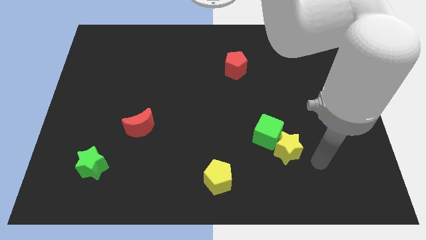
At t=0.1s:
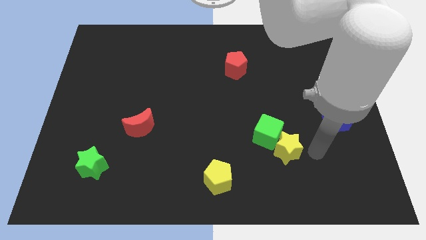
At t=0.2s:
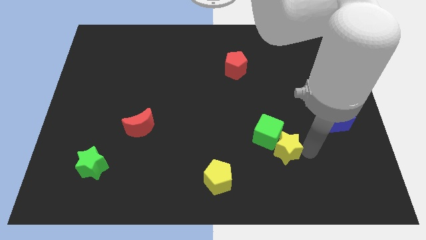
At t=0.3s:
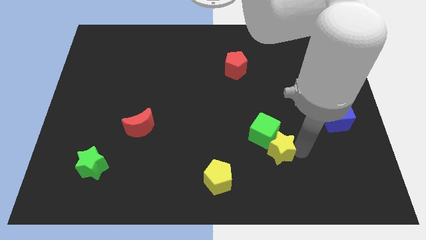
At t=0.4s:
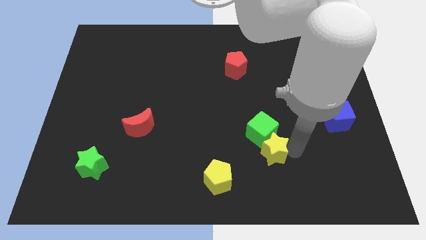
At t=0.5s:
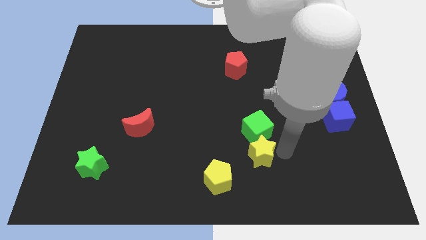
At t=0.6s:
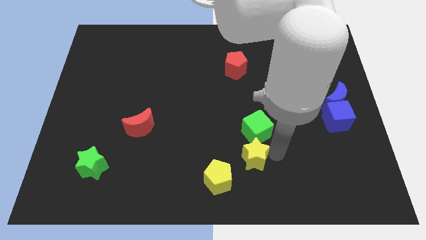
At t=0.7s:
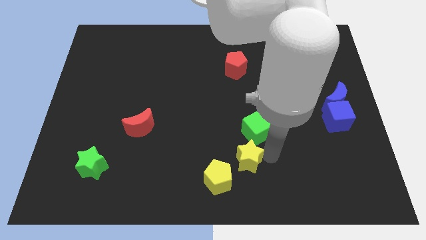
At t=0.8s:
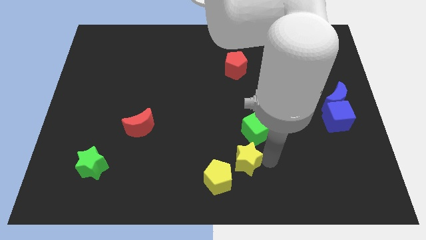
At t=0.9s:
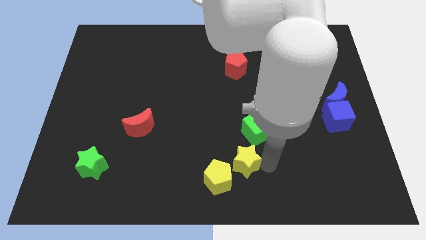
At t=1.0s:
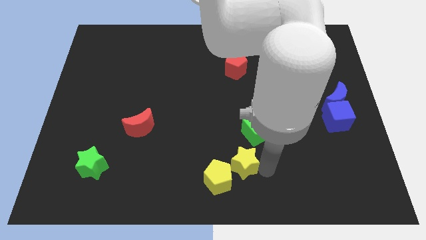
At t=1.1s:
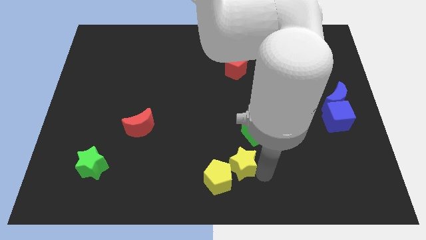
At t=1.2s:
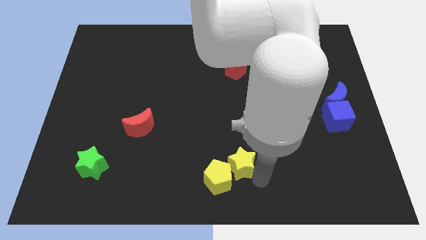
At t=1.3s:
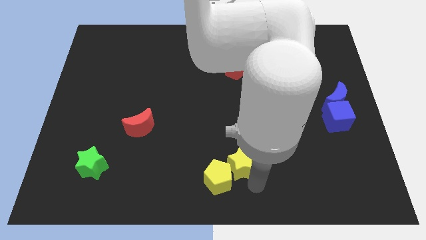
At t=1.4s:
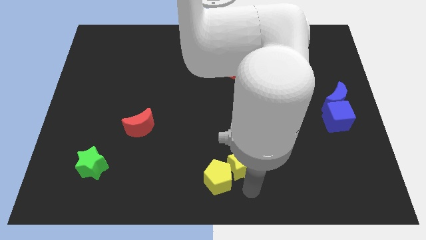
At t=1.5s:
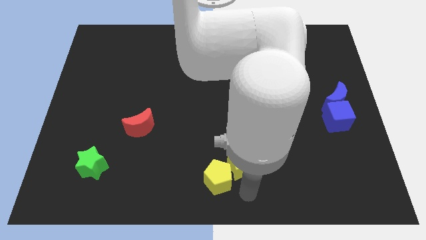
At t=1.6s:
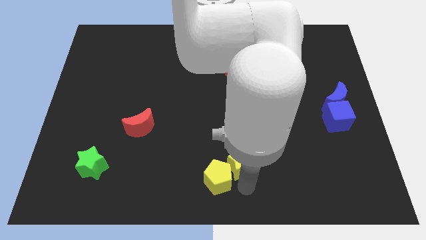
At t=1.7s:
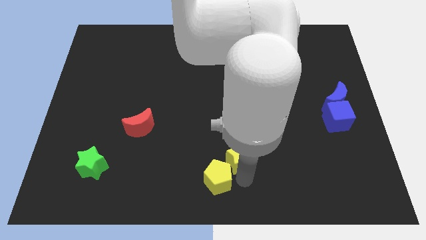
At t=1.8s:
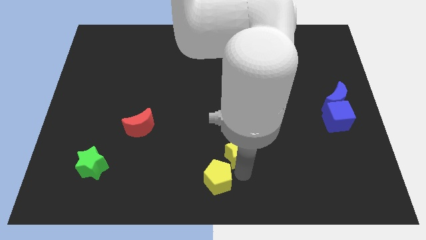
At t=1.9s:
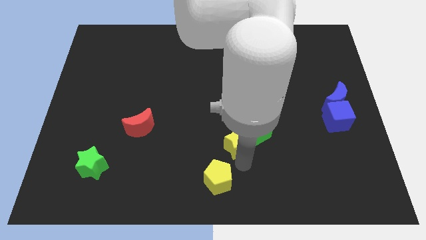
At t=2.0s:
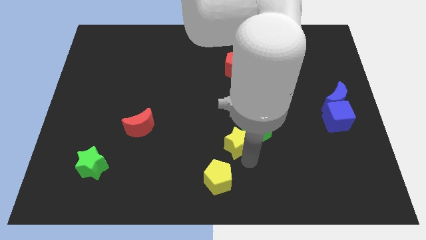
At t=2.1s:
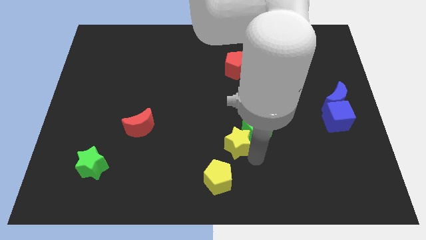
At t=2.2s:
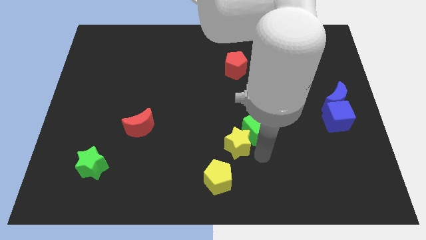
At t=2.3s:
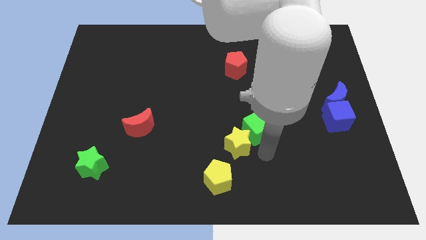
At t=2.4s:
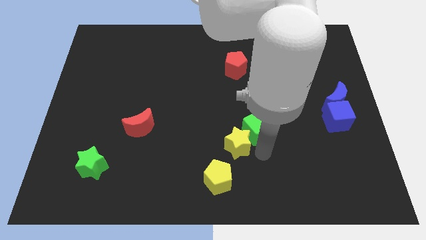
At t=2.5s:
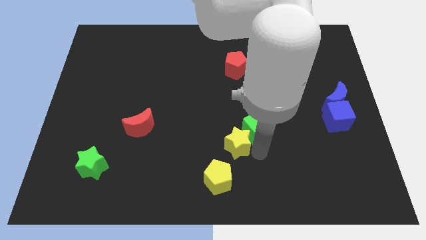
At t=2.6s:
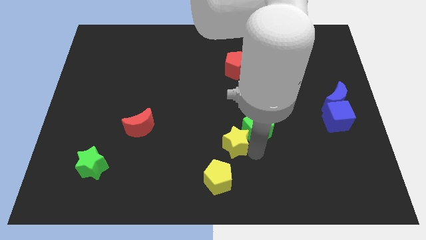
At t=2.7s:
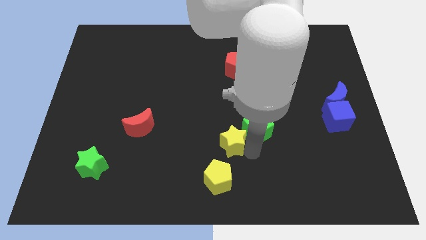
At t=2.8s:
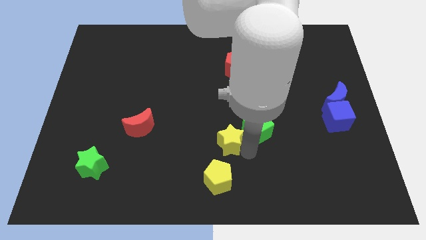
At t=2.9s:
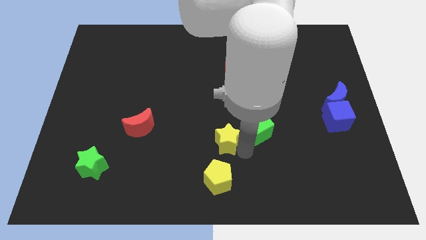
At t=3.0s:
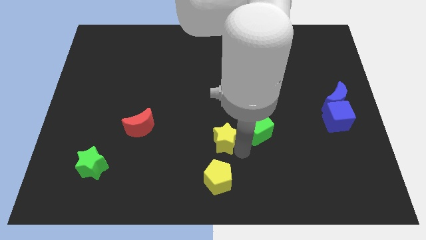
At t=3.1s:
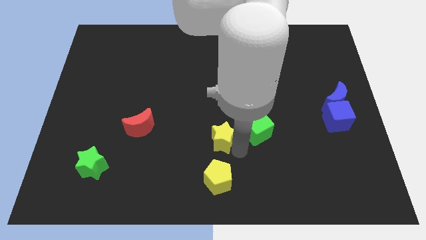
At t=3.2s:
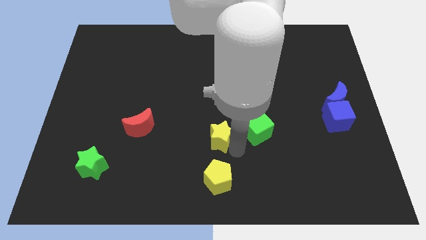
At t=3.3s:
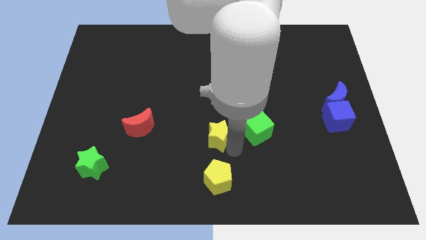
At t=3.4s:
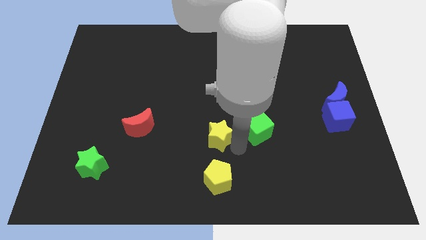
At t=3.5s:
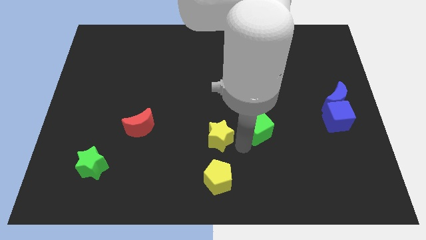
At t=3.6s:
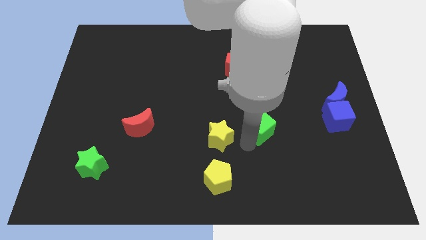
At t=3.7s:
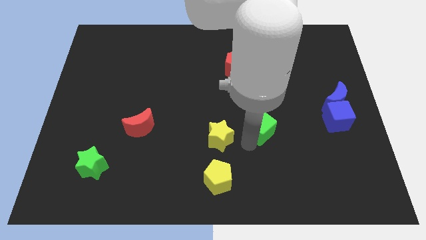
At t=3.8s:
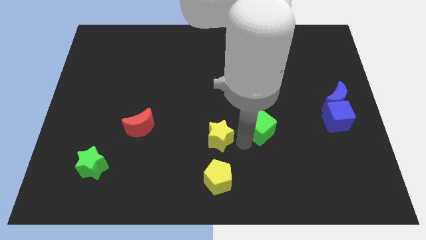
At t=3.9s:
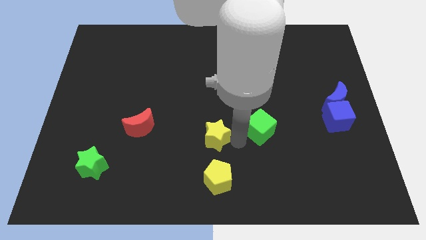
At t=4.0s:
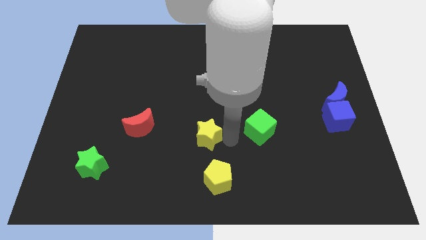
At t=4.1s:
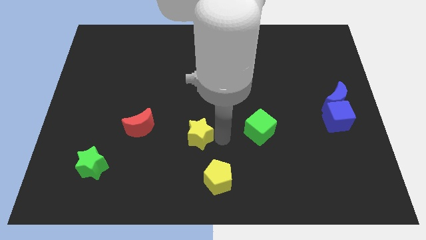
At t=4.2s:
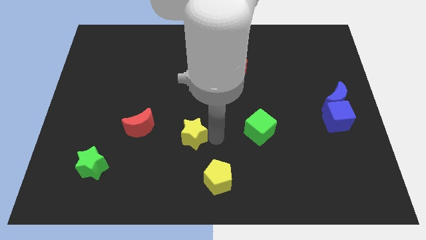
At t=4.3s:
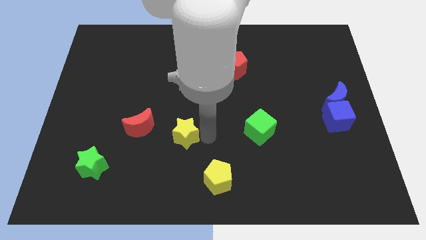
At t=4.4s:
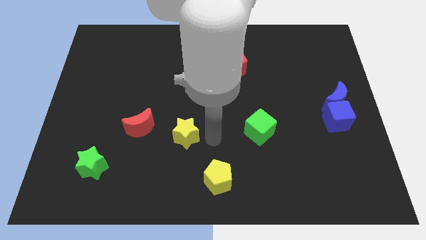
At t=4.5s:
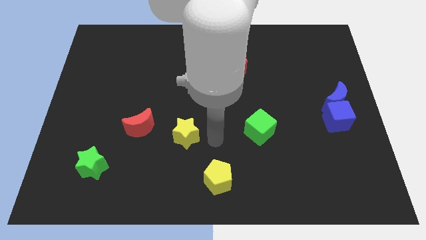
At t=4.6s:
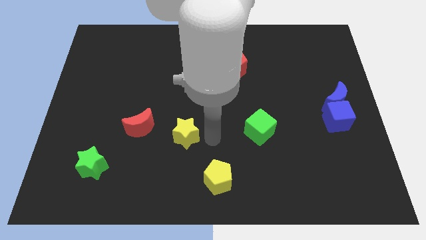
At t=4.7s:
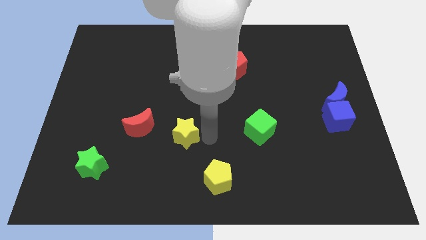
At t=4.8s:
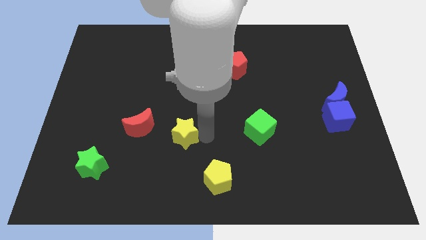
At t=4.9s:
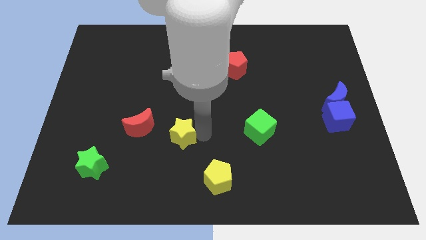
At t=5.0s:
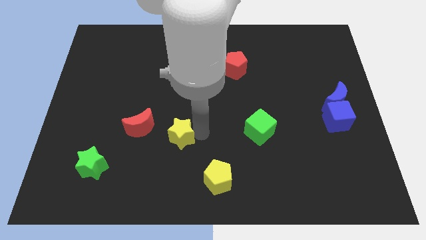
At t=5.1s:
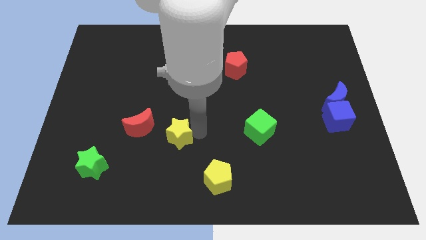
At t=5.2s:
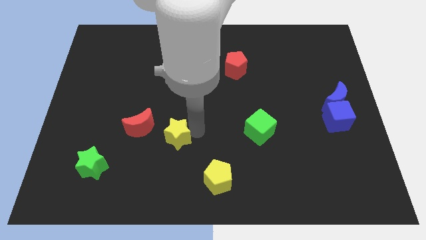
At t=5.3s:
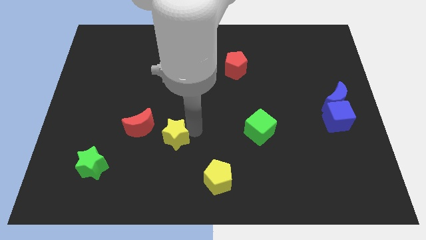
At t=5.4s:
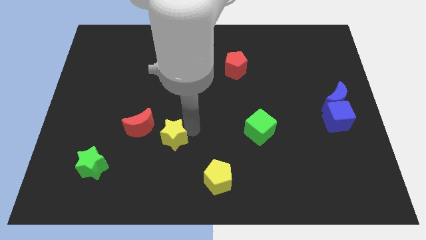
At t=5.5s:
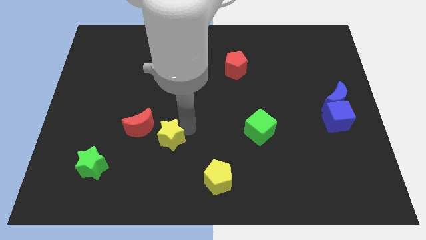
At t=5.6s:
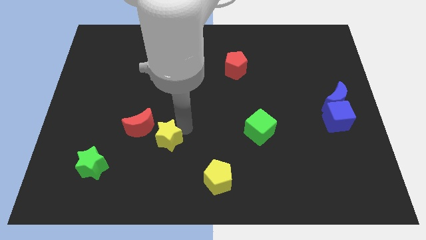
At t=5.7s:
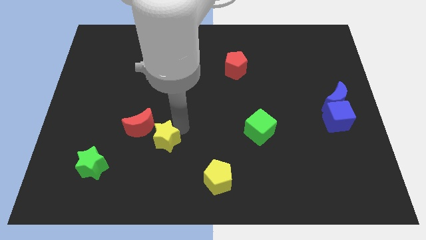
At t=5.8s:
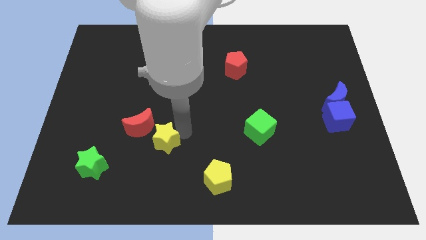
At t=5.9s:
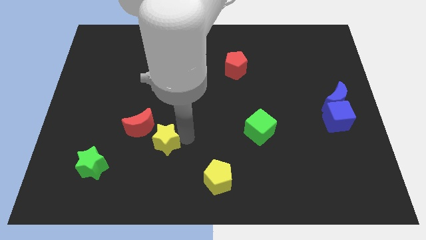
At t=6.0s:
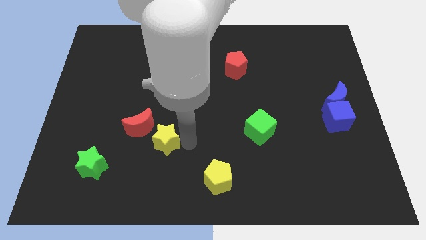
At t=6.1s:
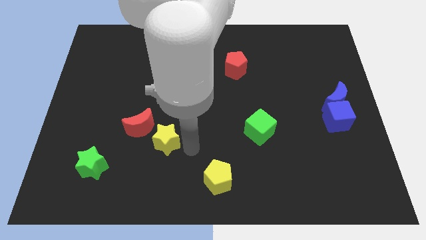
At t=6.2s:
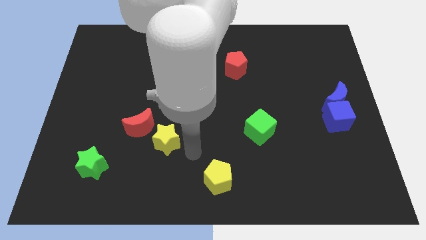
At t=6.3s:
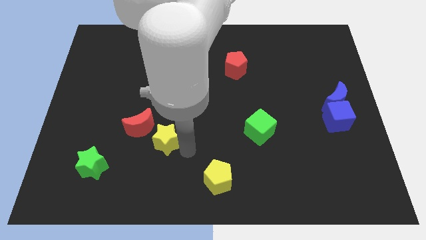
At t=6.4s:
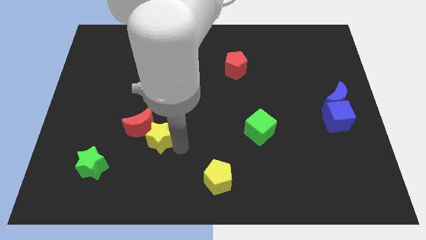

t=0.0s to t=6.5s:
move the yellow star close to the red moon

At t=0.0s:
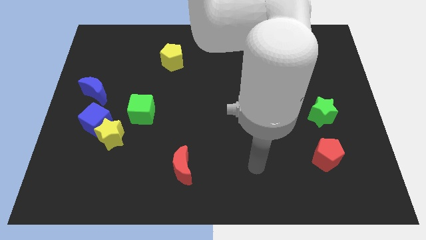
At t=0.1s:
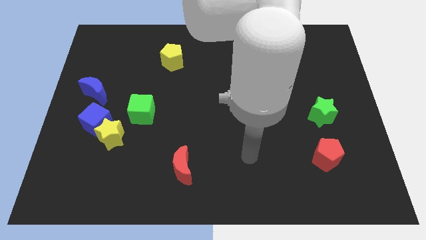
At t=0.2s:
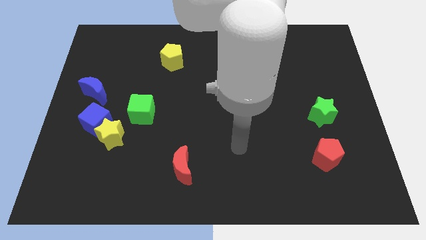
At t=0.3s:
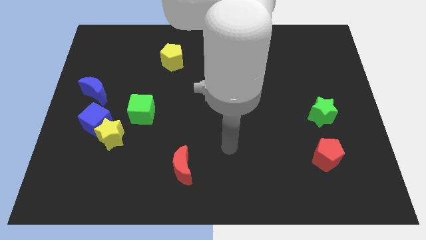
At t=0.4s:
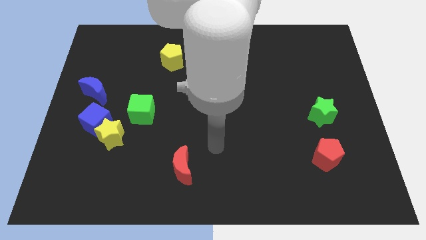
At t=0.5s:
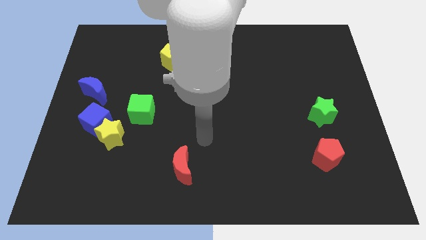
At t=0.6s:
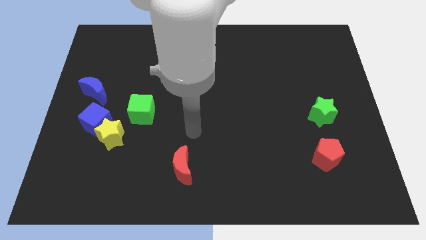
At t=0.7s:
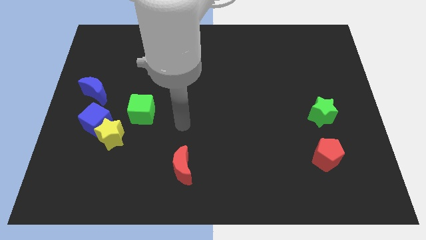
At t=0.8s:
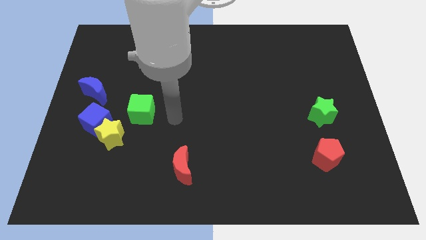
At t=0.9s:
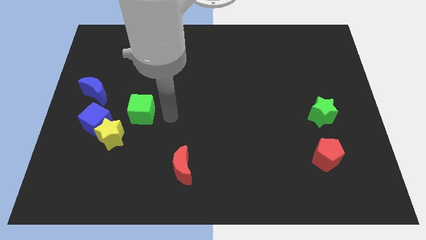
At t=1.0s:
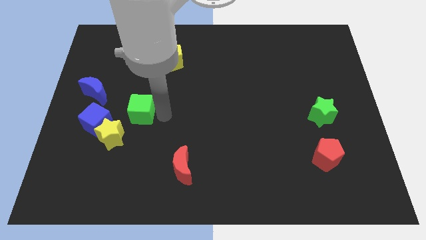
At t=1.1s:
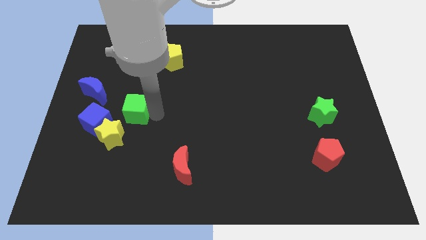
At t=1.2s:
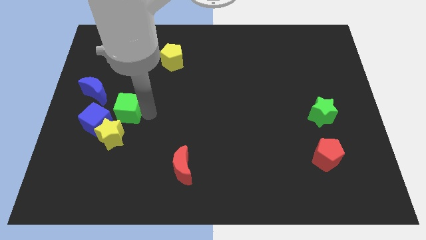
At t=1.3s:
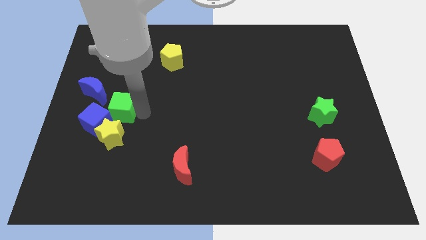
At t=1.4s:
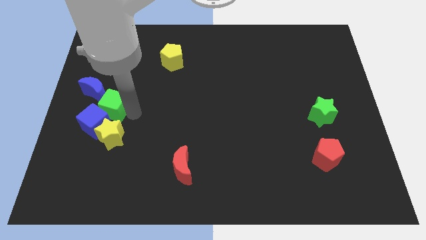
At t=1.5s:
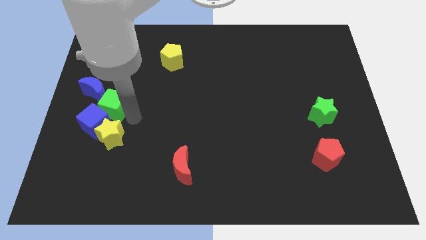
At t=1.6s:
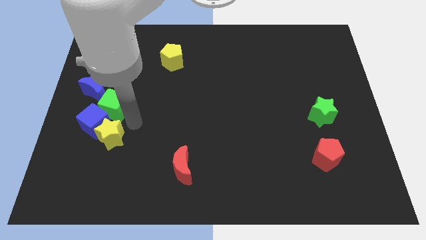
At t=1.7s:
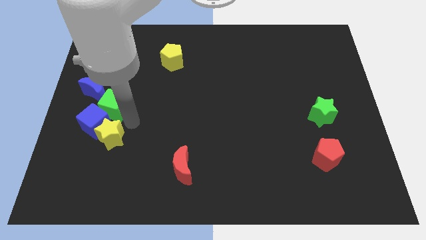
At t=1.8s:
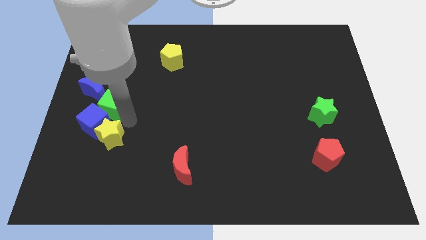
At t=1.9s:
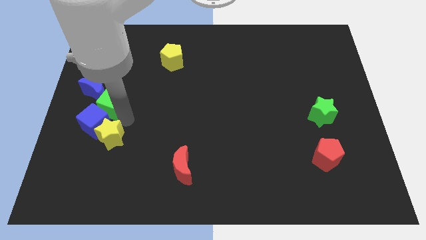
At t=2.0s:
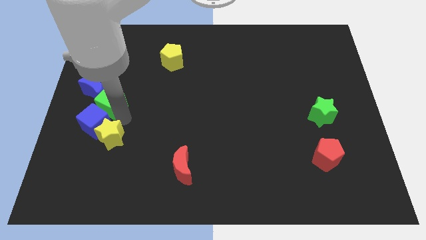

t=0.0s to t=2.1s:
slide the green cube to the blue moon
